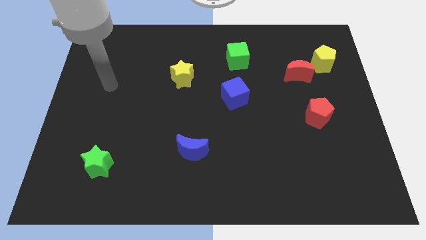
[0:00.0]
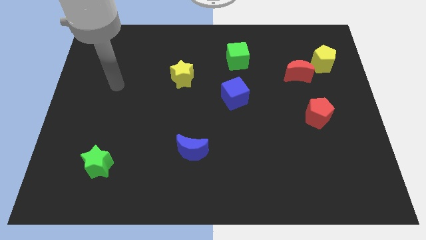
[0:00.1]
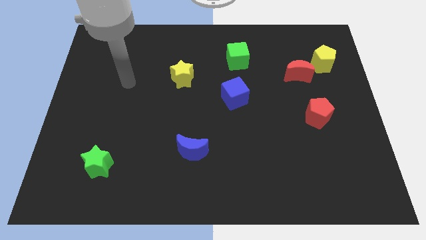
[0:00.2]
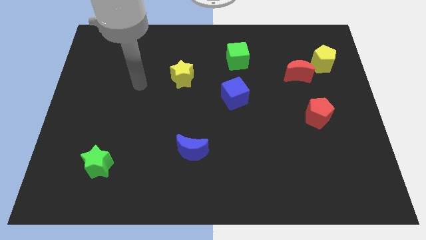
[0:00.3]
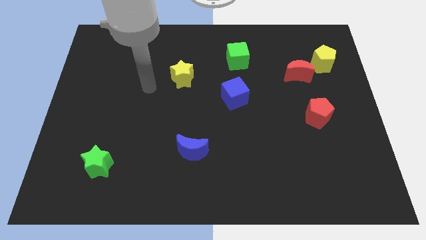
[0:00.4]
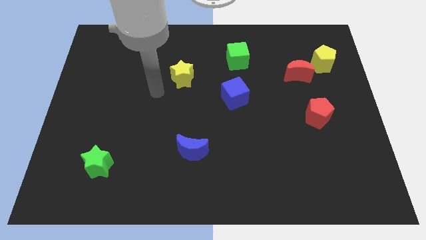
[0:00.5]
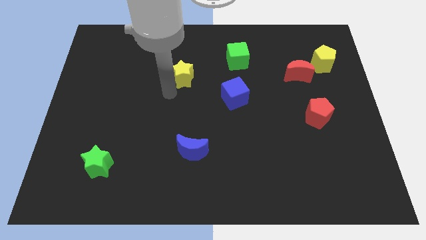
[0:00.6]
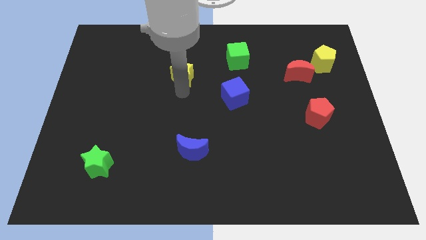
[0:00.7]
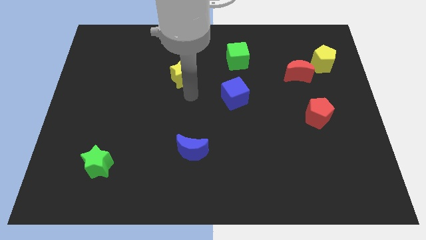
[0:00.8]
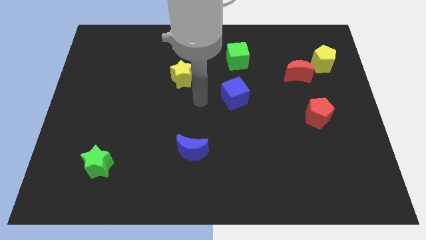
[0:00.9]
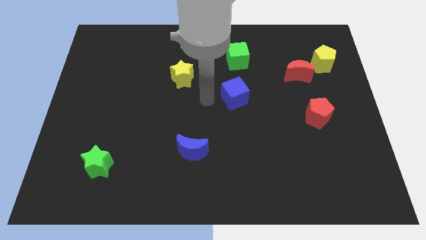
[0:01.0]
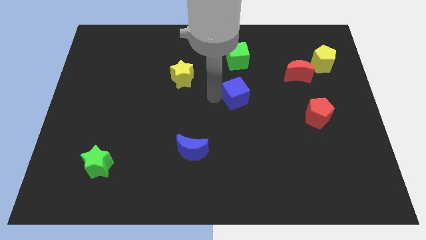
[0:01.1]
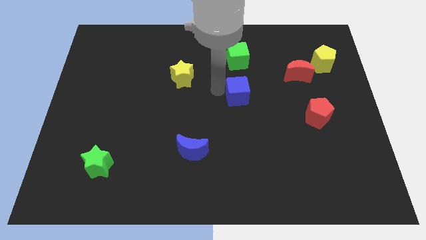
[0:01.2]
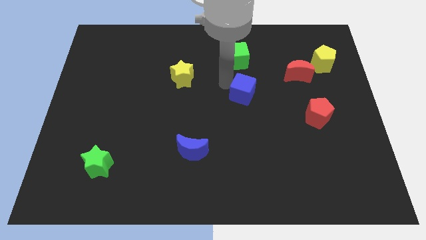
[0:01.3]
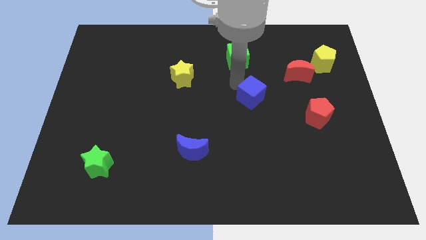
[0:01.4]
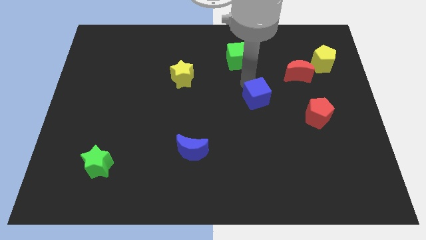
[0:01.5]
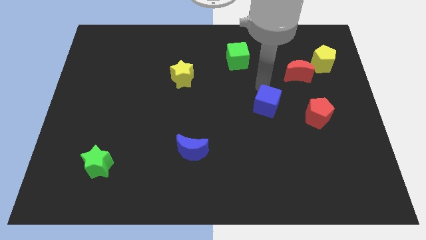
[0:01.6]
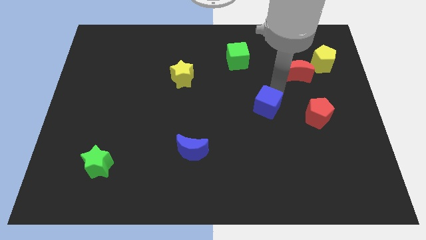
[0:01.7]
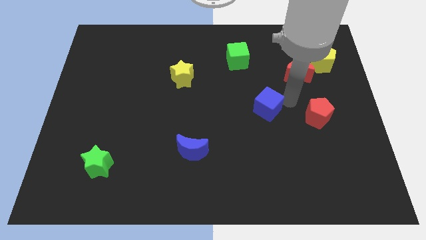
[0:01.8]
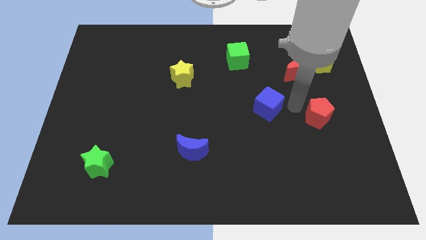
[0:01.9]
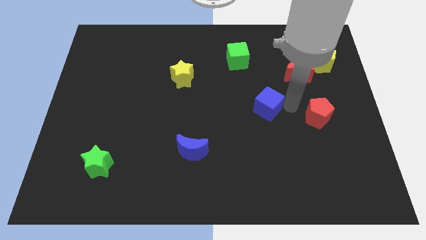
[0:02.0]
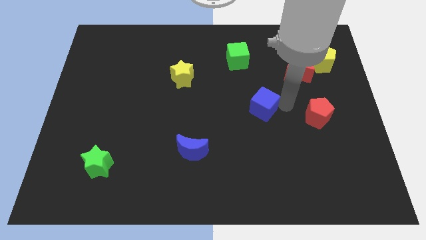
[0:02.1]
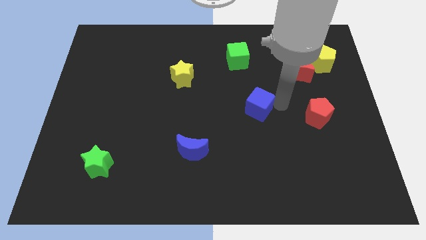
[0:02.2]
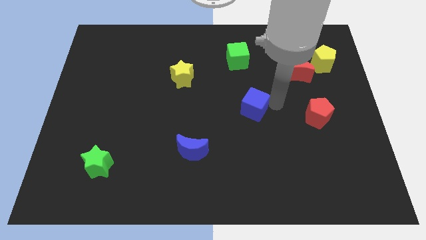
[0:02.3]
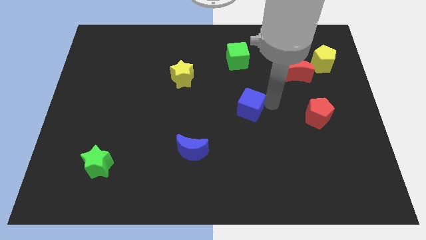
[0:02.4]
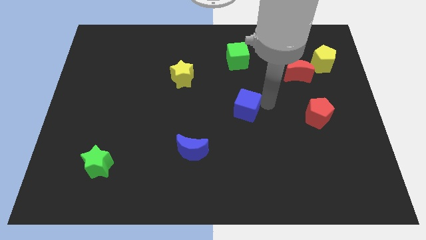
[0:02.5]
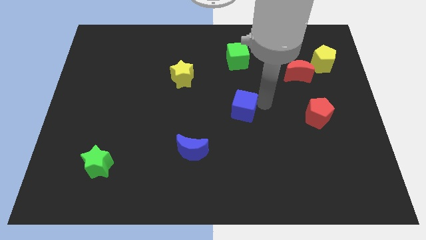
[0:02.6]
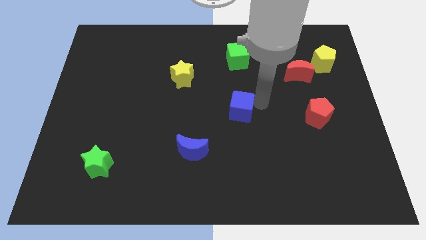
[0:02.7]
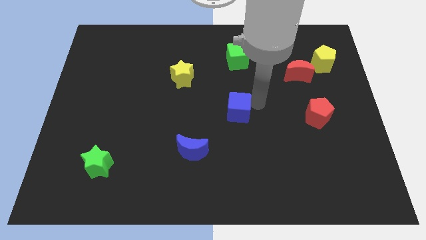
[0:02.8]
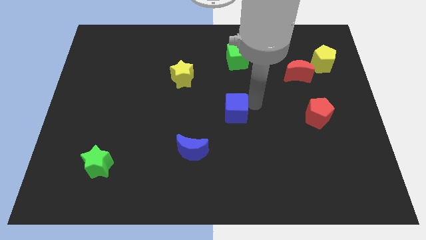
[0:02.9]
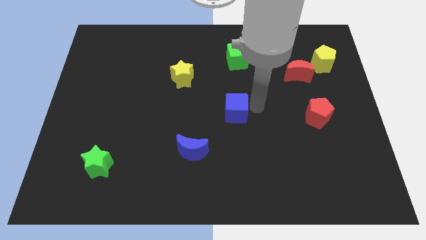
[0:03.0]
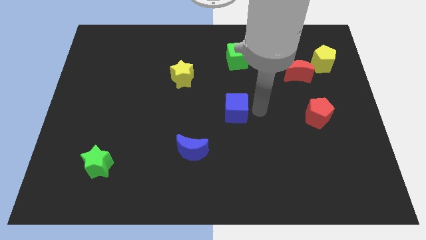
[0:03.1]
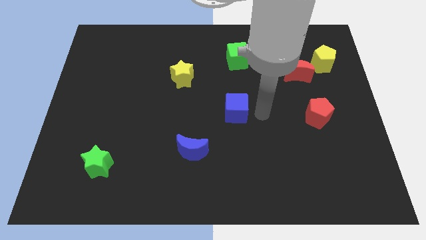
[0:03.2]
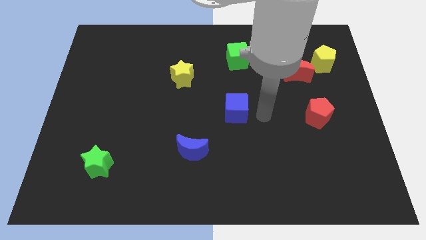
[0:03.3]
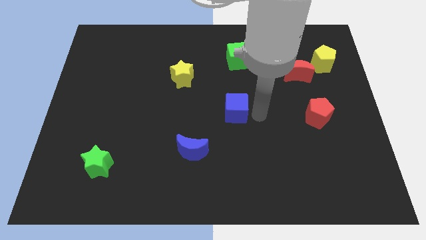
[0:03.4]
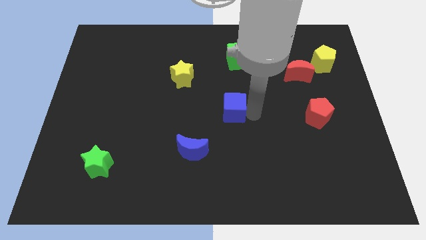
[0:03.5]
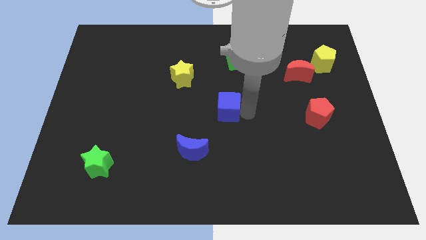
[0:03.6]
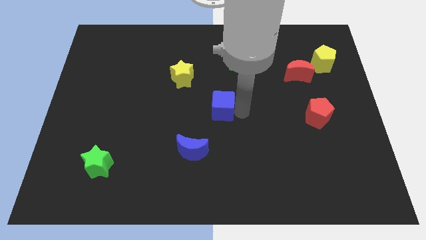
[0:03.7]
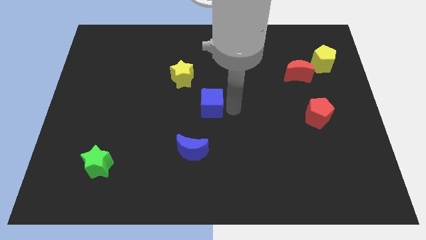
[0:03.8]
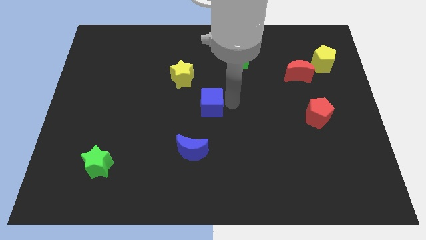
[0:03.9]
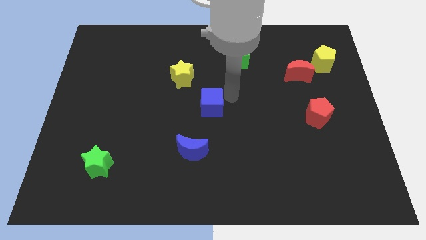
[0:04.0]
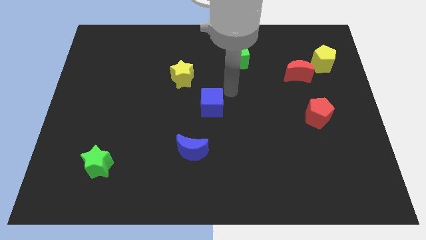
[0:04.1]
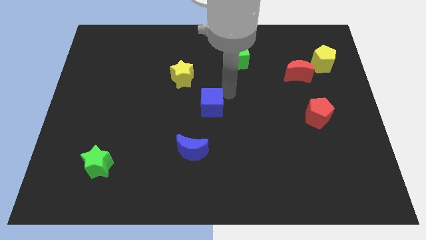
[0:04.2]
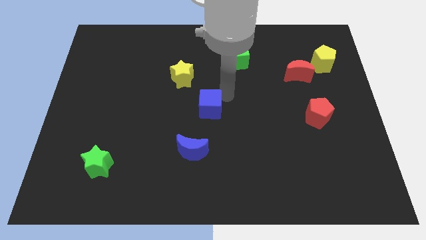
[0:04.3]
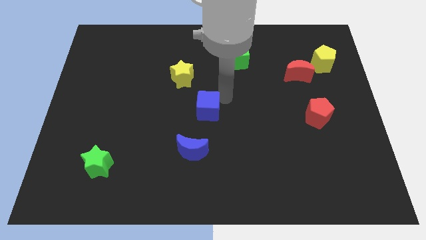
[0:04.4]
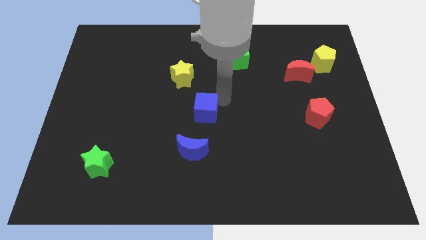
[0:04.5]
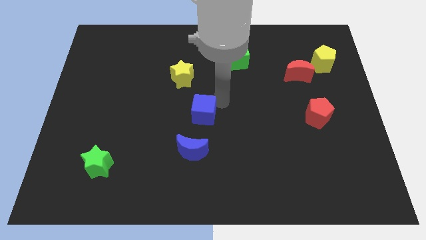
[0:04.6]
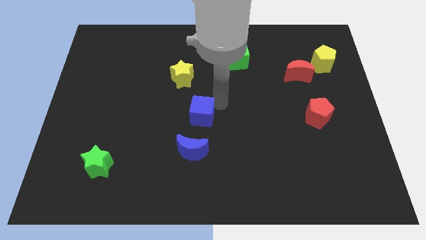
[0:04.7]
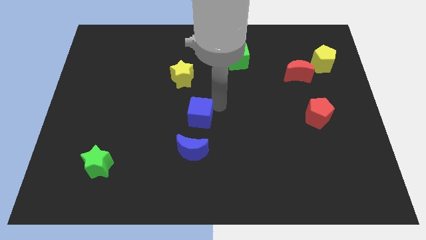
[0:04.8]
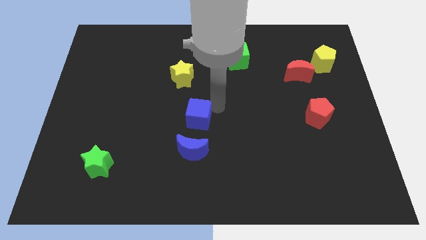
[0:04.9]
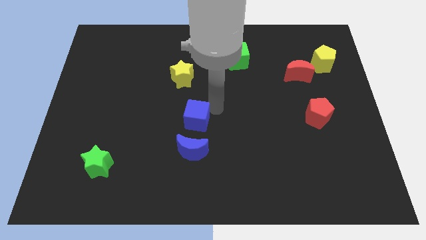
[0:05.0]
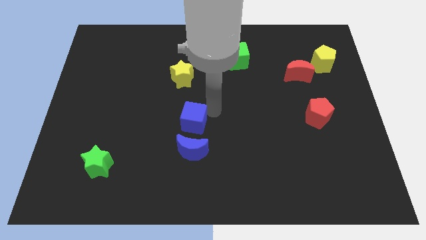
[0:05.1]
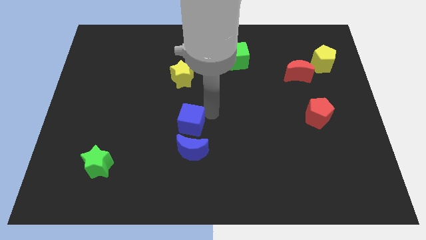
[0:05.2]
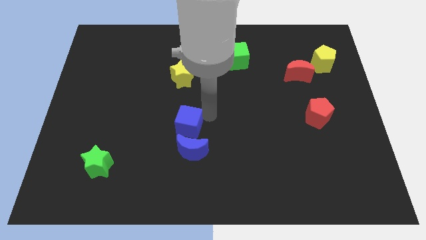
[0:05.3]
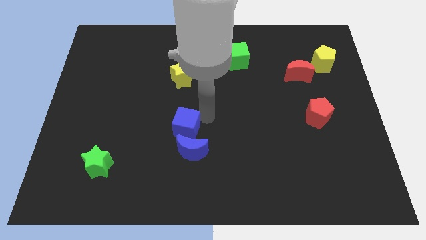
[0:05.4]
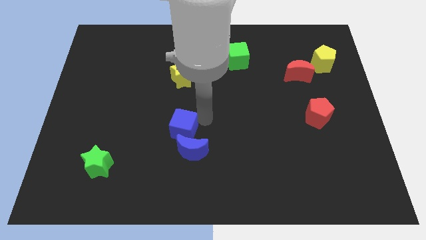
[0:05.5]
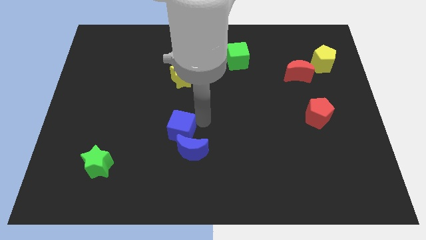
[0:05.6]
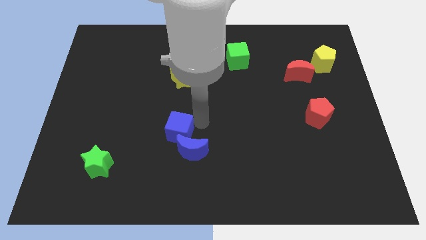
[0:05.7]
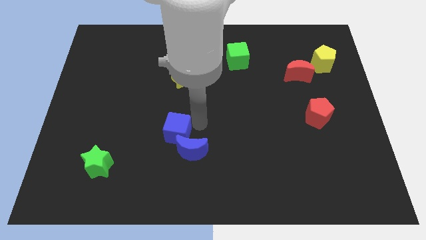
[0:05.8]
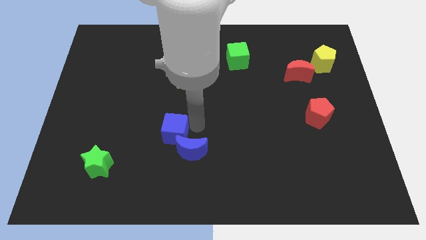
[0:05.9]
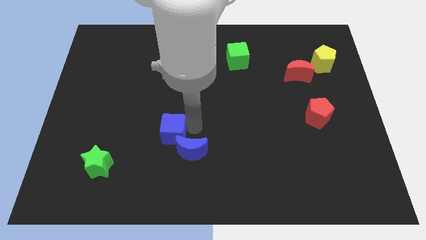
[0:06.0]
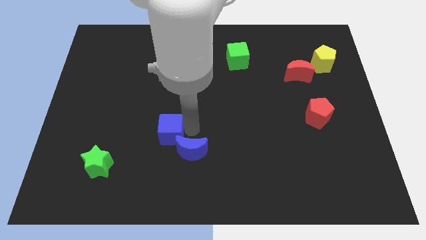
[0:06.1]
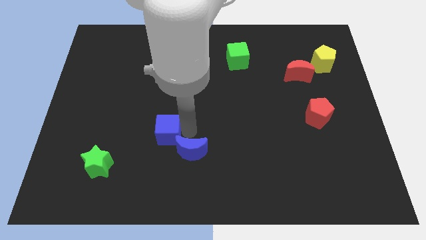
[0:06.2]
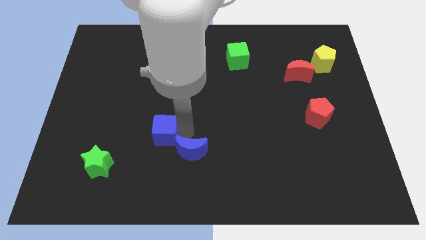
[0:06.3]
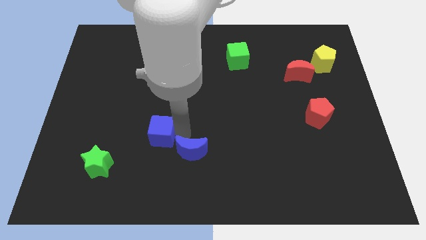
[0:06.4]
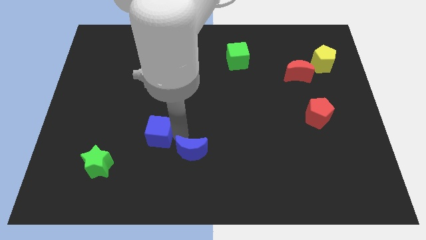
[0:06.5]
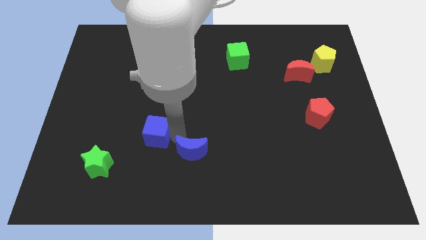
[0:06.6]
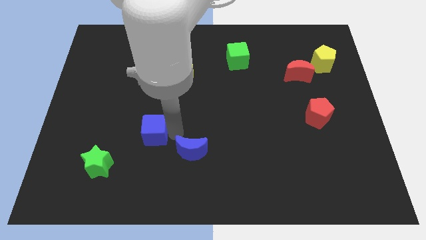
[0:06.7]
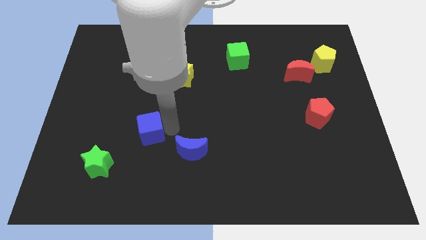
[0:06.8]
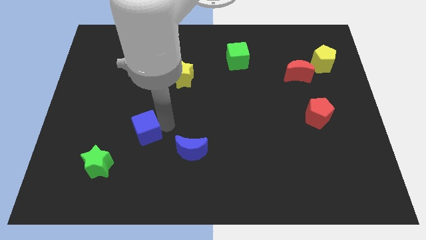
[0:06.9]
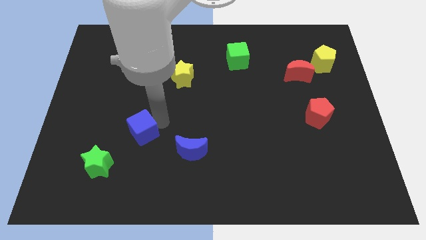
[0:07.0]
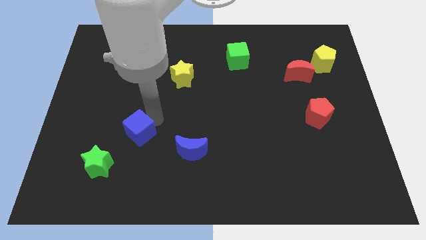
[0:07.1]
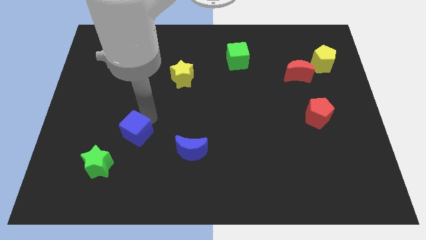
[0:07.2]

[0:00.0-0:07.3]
slide the blue cube downwards and then to the left

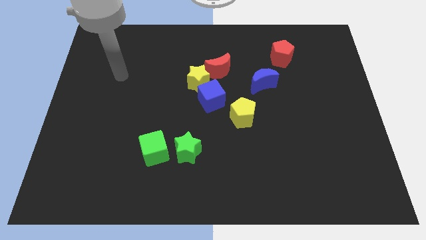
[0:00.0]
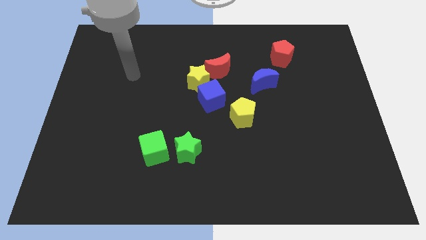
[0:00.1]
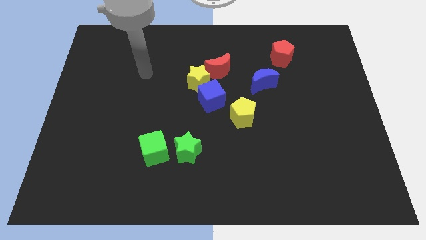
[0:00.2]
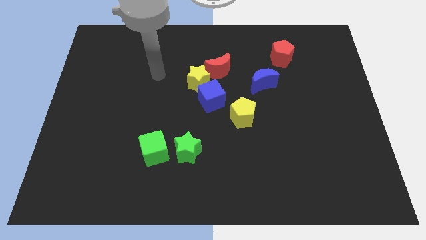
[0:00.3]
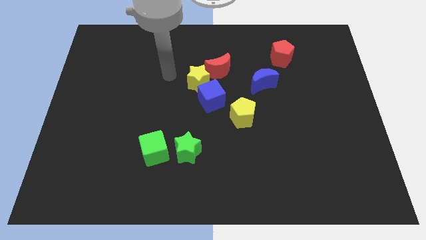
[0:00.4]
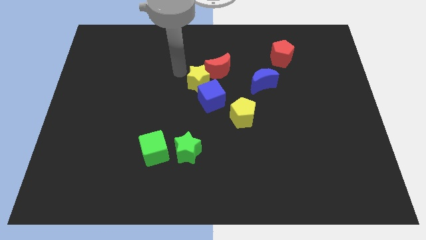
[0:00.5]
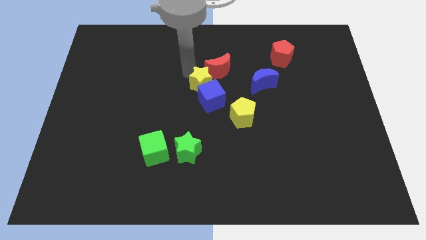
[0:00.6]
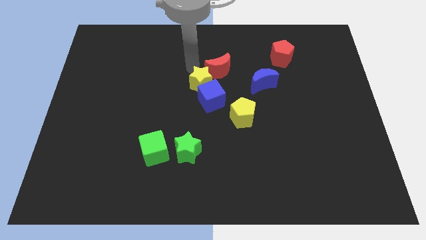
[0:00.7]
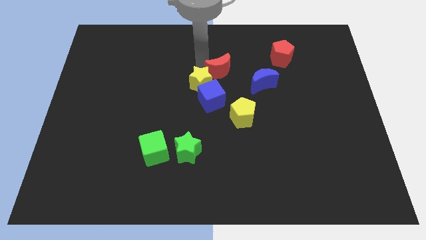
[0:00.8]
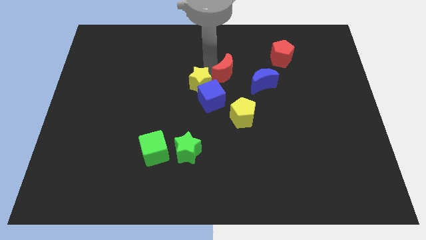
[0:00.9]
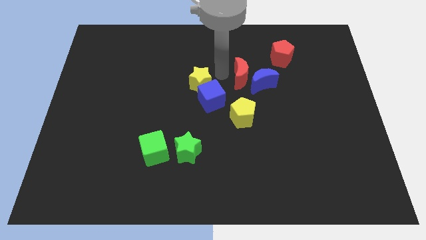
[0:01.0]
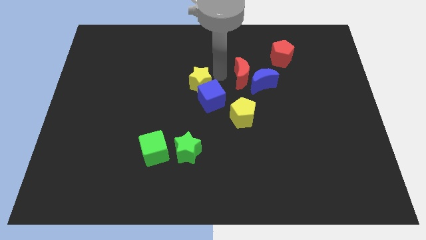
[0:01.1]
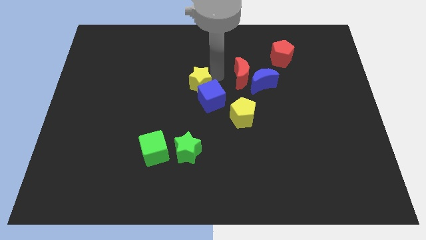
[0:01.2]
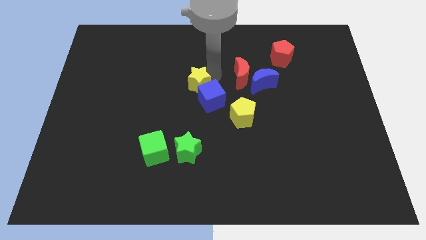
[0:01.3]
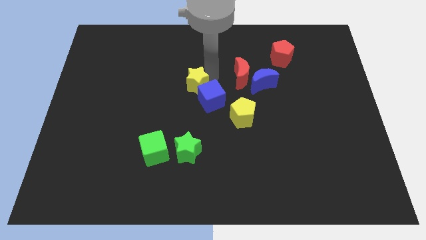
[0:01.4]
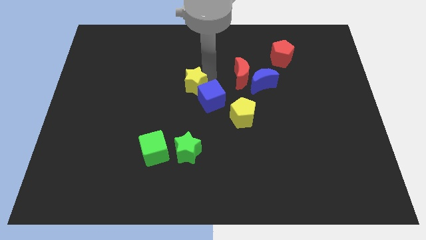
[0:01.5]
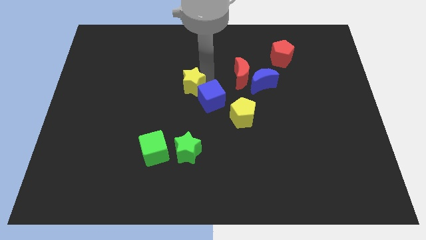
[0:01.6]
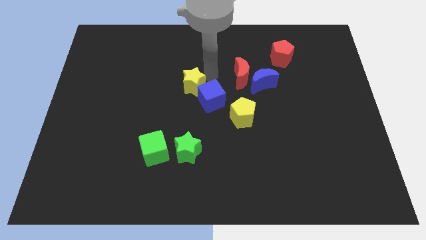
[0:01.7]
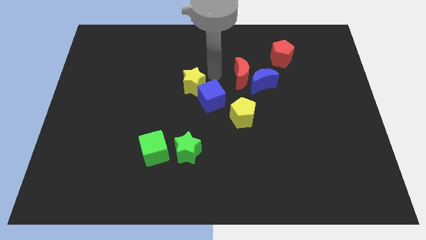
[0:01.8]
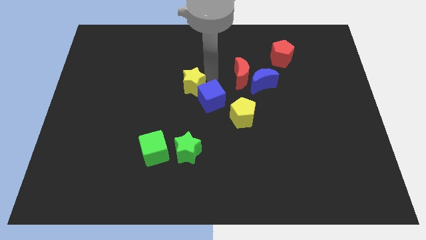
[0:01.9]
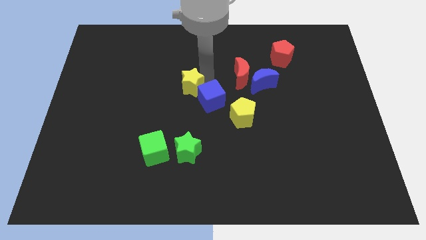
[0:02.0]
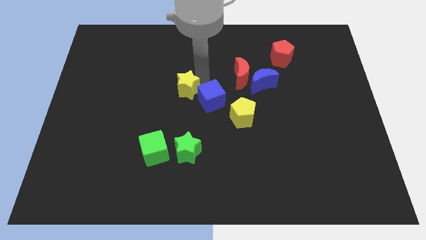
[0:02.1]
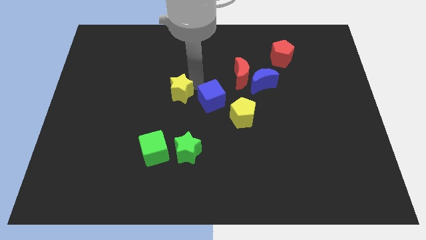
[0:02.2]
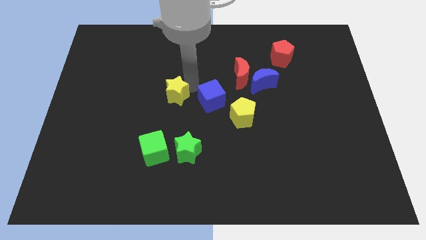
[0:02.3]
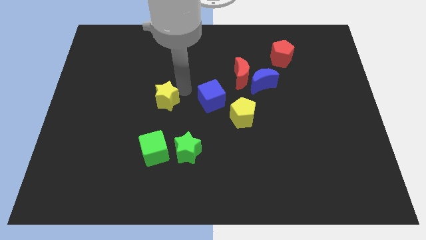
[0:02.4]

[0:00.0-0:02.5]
move the yellow star a little bit downwards and left
